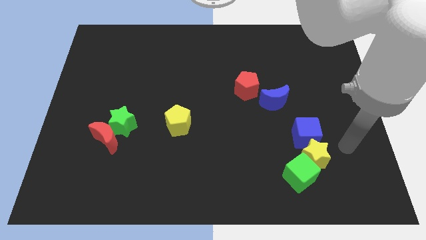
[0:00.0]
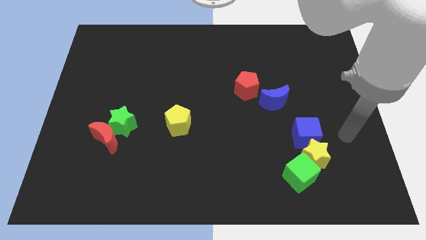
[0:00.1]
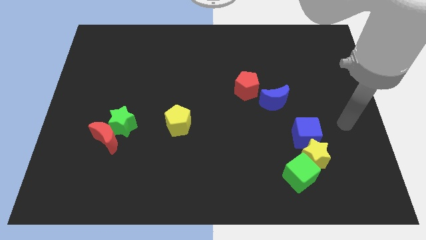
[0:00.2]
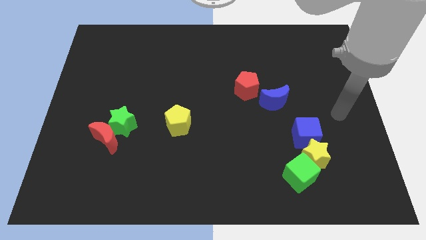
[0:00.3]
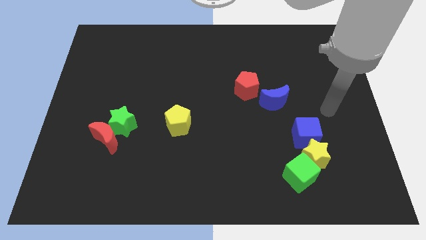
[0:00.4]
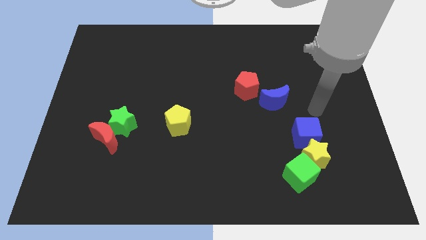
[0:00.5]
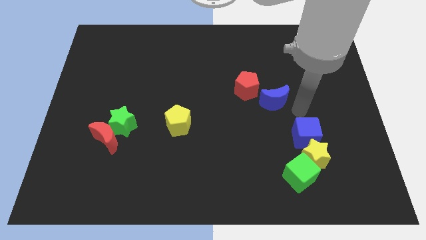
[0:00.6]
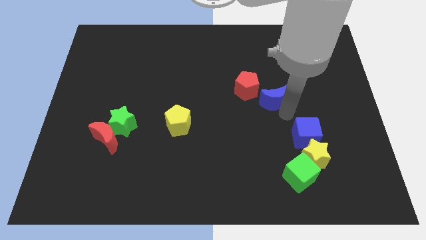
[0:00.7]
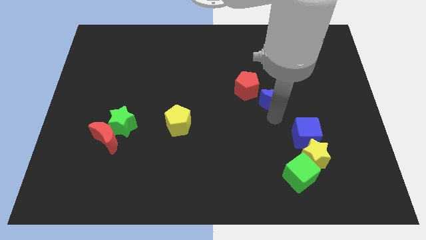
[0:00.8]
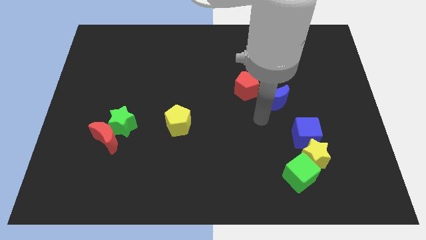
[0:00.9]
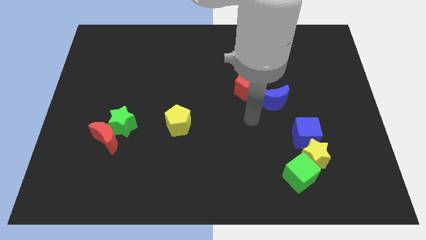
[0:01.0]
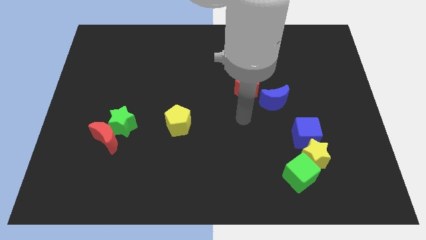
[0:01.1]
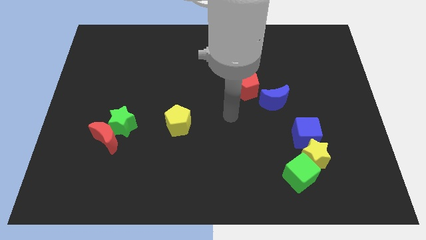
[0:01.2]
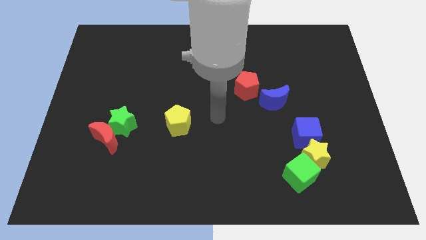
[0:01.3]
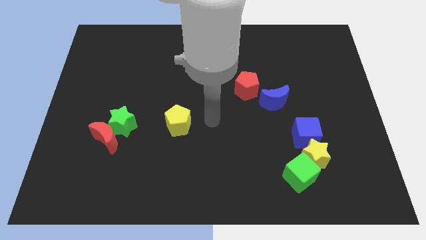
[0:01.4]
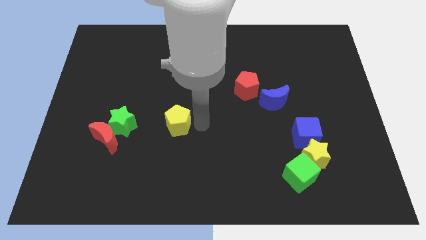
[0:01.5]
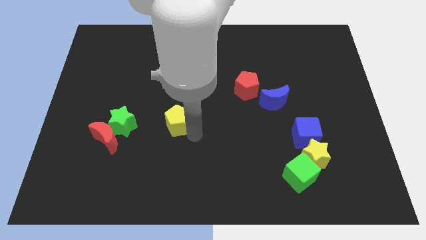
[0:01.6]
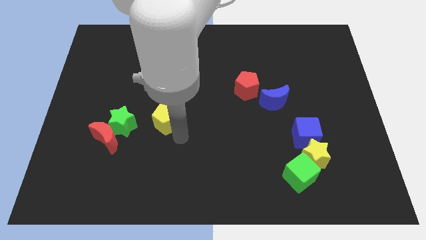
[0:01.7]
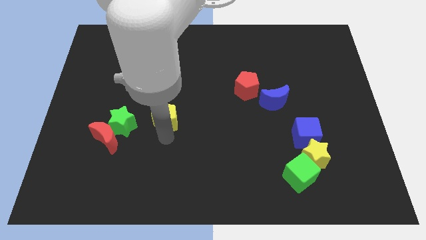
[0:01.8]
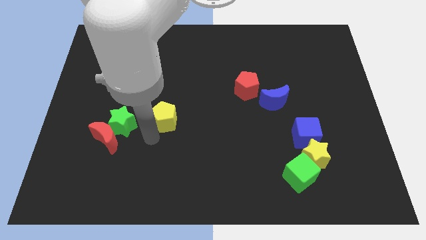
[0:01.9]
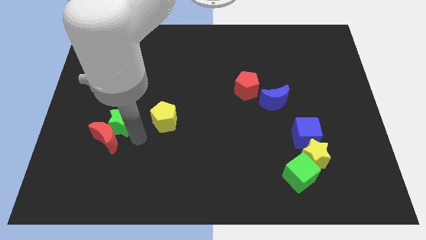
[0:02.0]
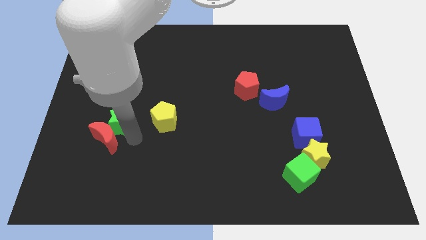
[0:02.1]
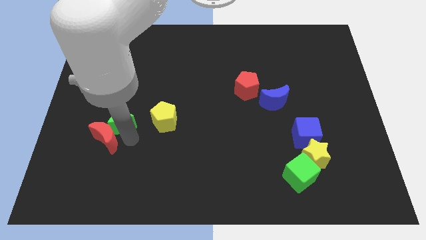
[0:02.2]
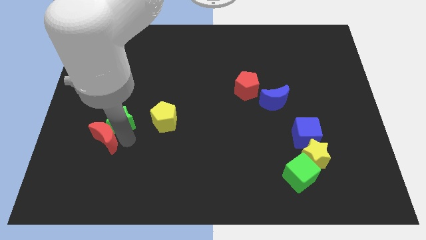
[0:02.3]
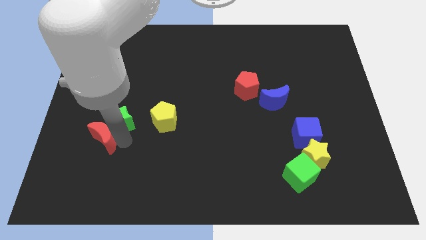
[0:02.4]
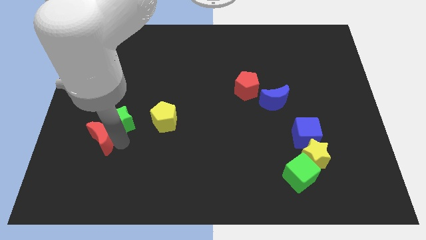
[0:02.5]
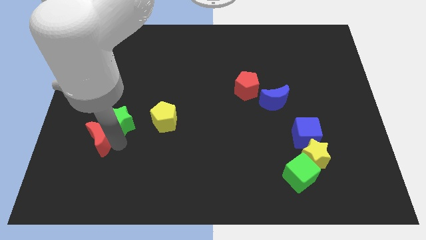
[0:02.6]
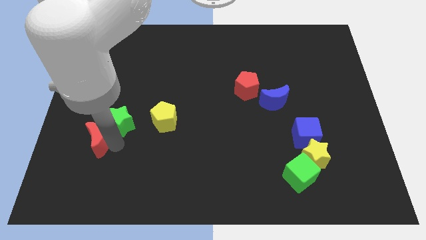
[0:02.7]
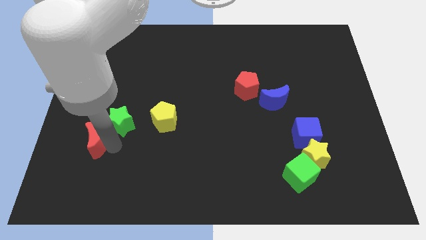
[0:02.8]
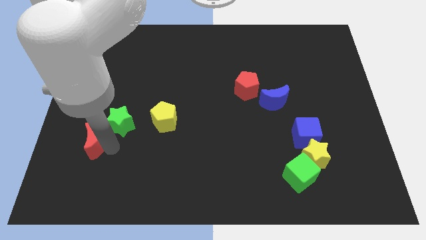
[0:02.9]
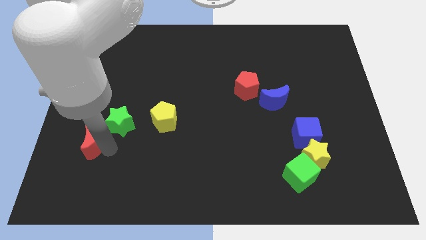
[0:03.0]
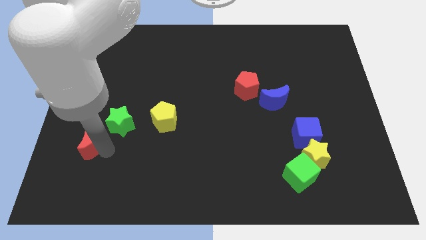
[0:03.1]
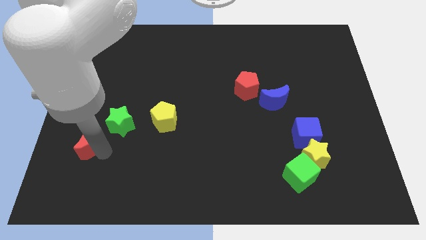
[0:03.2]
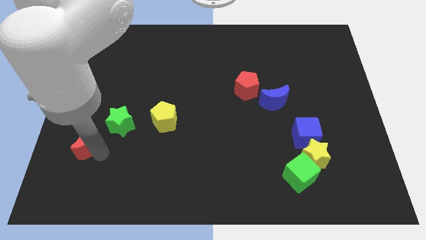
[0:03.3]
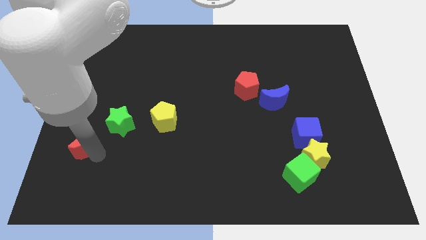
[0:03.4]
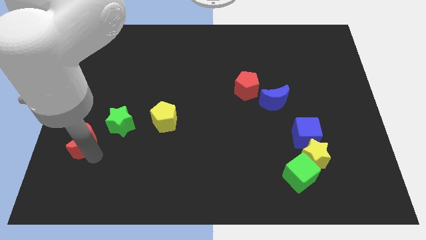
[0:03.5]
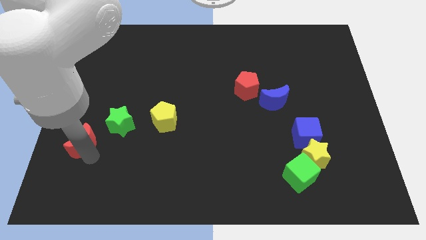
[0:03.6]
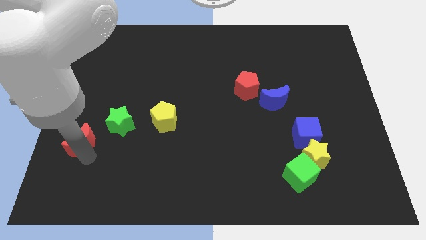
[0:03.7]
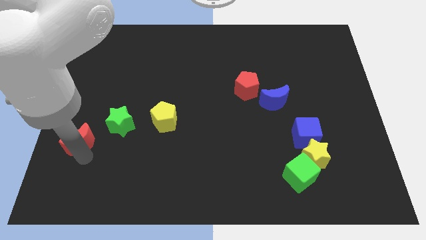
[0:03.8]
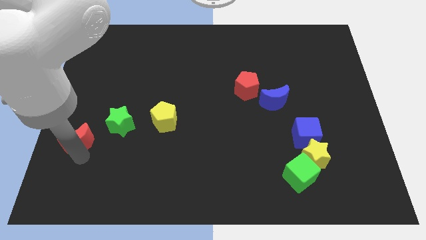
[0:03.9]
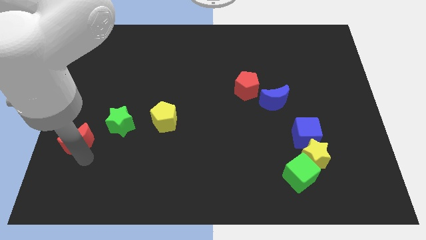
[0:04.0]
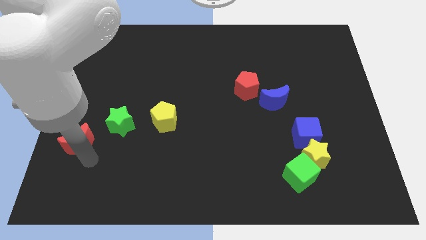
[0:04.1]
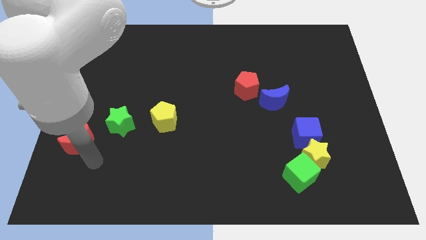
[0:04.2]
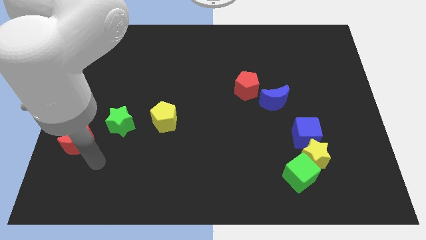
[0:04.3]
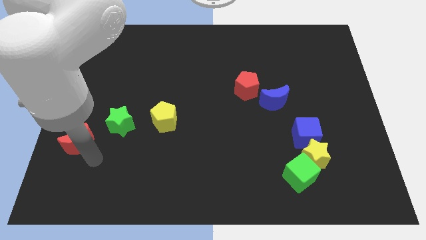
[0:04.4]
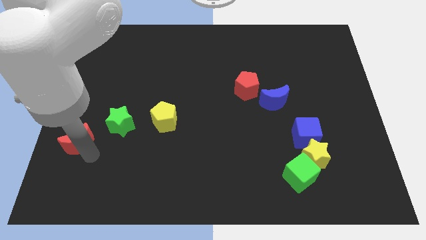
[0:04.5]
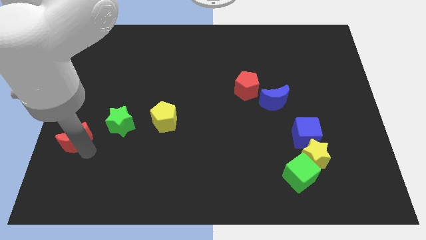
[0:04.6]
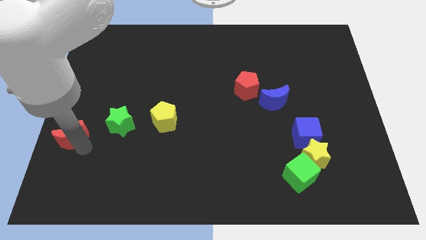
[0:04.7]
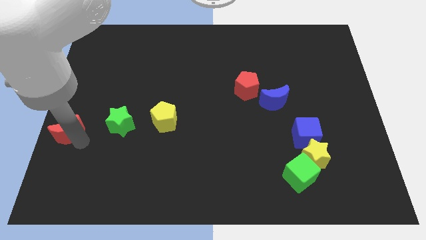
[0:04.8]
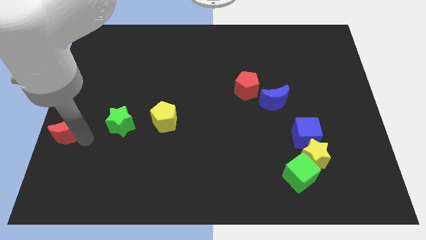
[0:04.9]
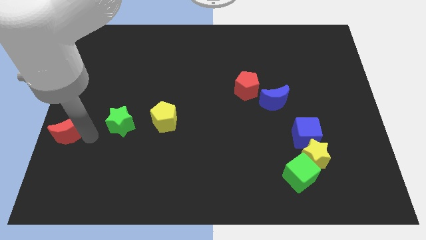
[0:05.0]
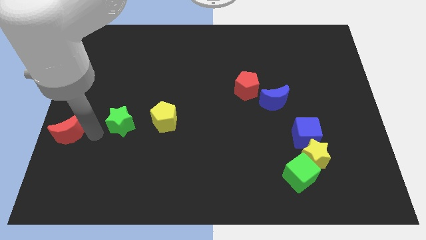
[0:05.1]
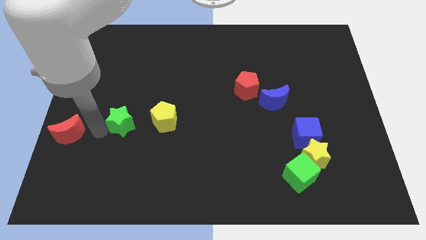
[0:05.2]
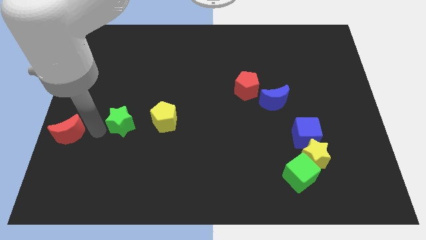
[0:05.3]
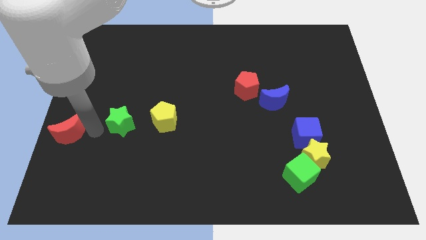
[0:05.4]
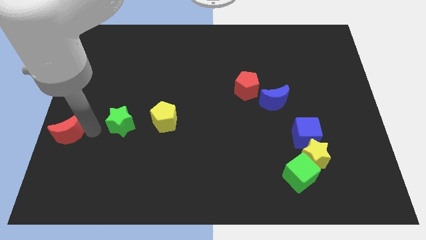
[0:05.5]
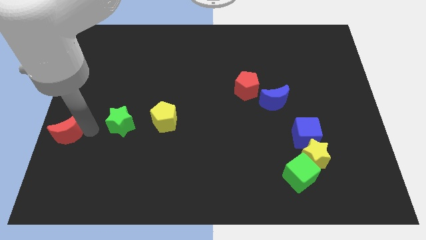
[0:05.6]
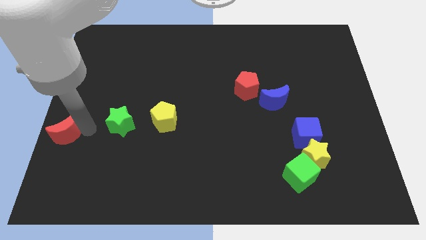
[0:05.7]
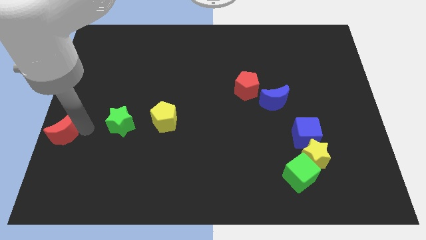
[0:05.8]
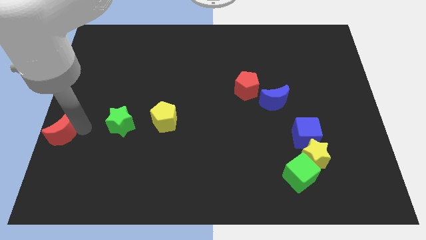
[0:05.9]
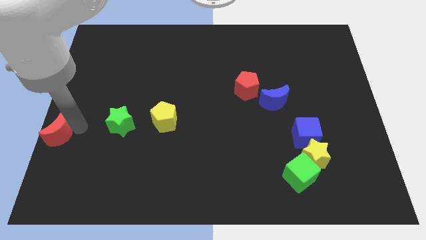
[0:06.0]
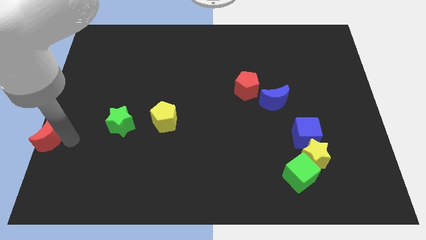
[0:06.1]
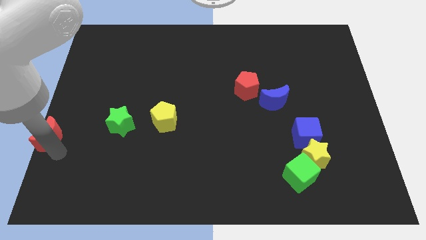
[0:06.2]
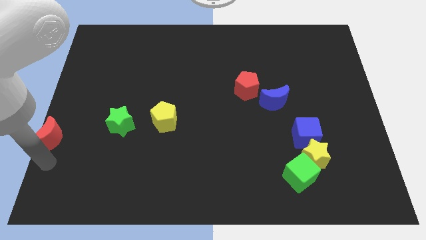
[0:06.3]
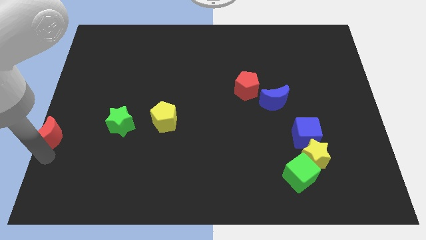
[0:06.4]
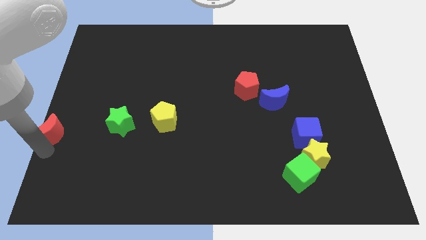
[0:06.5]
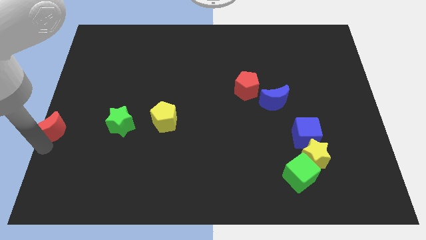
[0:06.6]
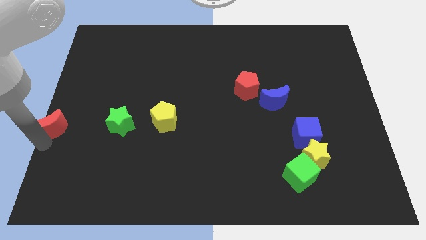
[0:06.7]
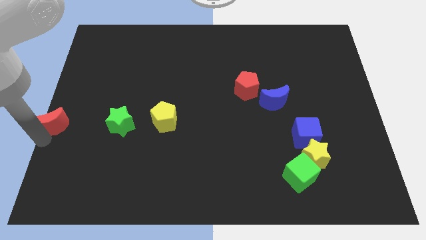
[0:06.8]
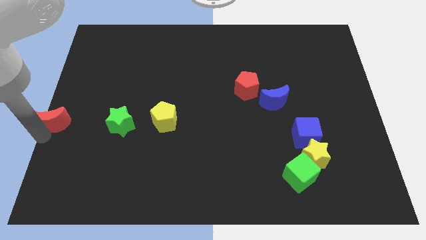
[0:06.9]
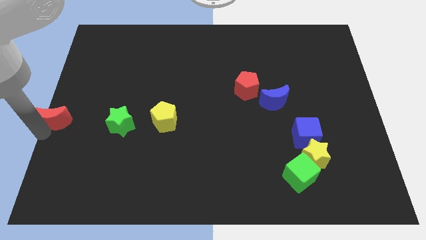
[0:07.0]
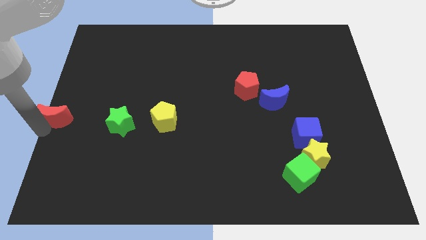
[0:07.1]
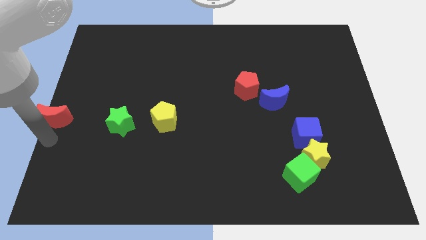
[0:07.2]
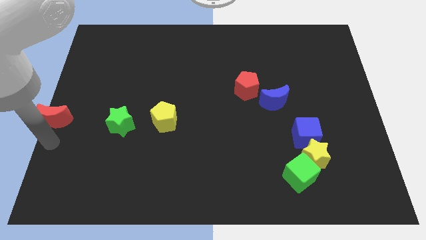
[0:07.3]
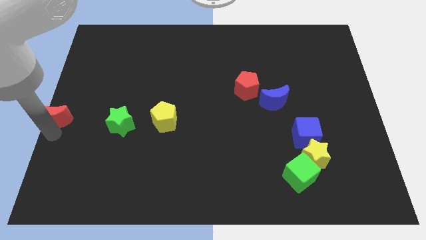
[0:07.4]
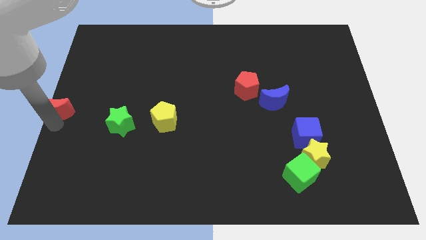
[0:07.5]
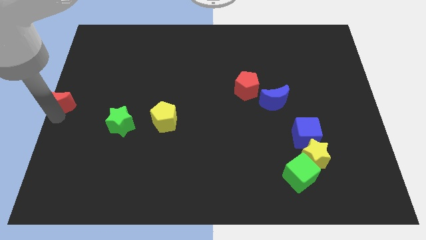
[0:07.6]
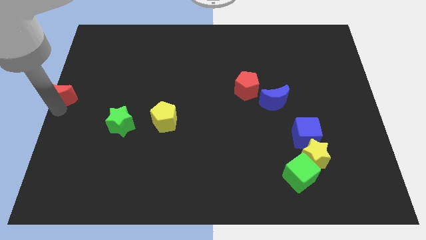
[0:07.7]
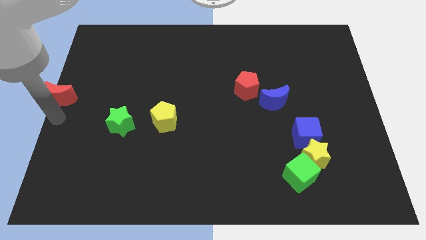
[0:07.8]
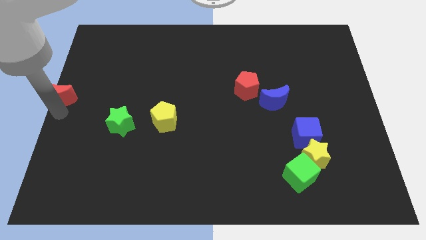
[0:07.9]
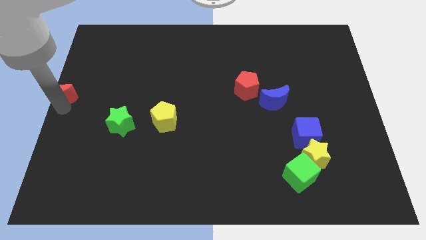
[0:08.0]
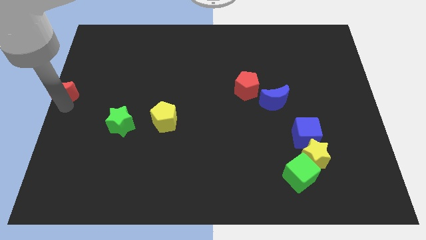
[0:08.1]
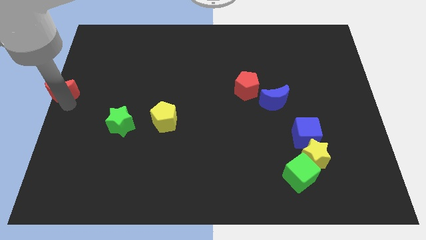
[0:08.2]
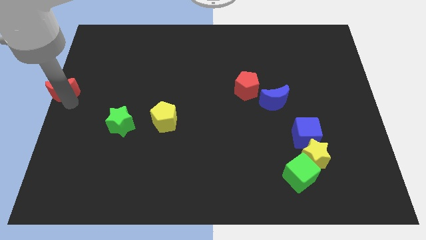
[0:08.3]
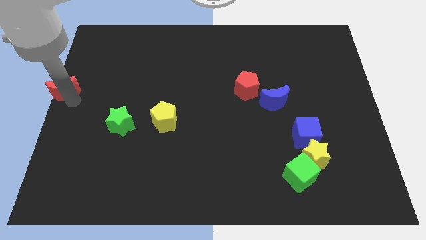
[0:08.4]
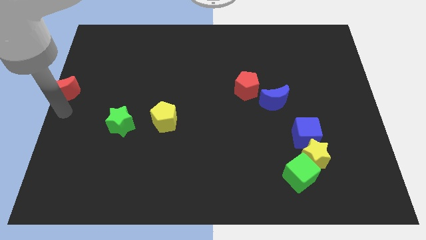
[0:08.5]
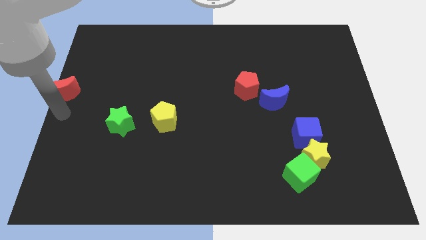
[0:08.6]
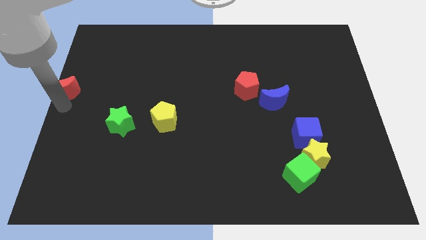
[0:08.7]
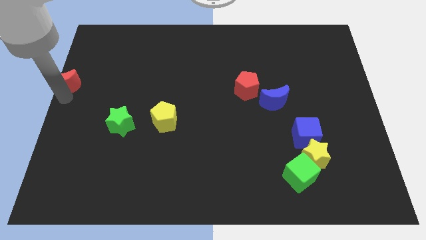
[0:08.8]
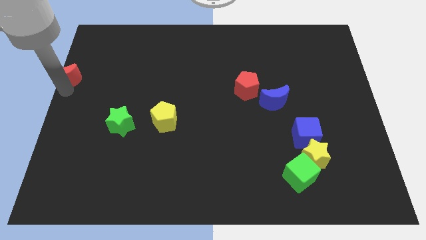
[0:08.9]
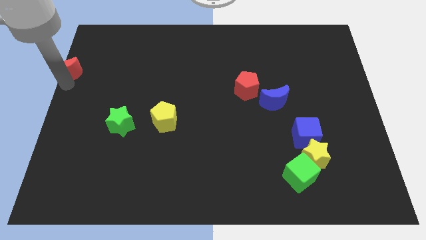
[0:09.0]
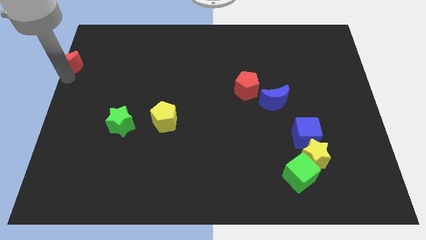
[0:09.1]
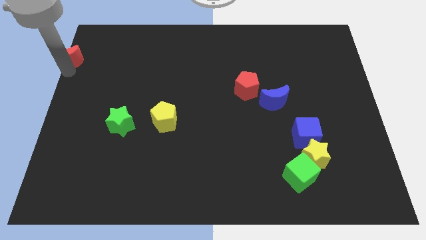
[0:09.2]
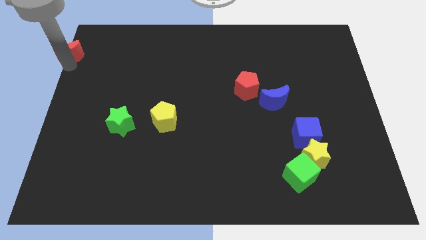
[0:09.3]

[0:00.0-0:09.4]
put the red moon to the top left corner
